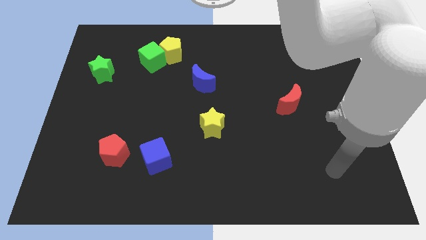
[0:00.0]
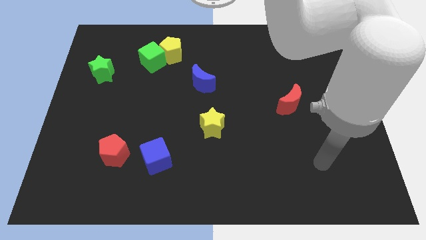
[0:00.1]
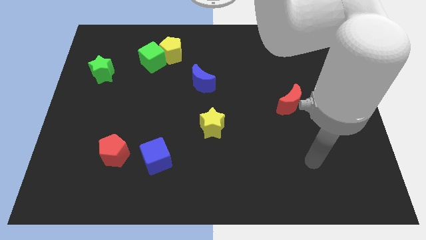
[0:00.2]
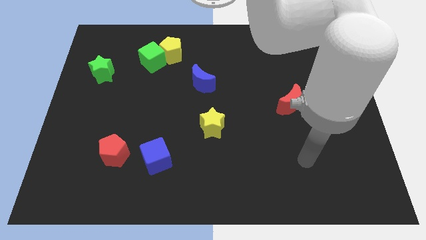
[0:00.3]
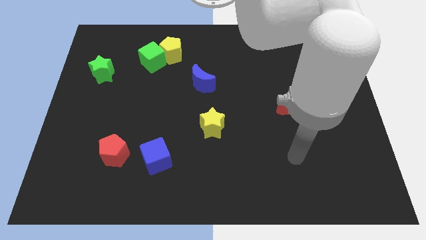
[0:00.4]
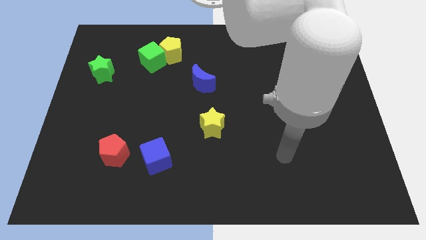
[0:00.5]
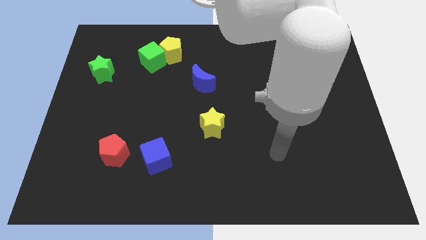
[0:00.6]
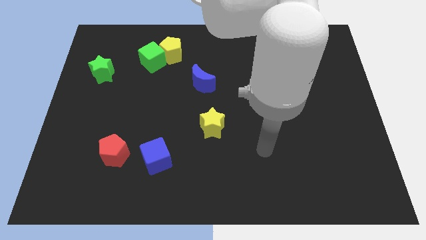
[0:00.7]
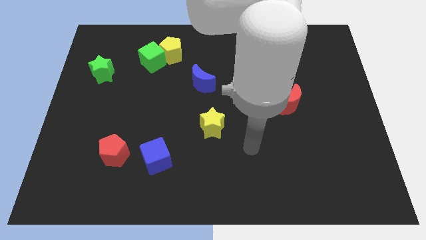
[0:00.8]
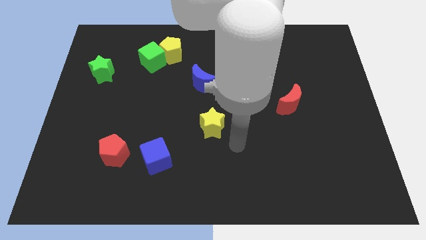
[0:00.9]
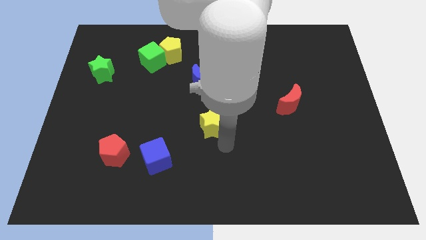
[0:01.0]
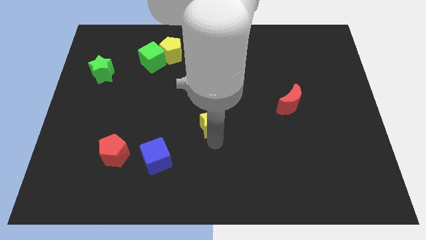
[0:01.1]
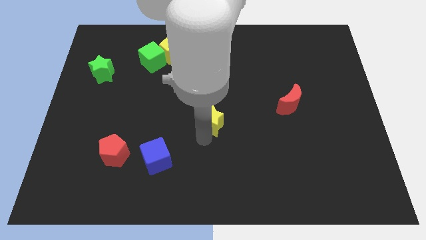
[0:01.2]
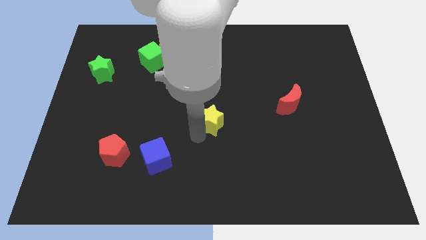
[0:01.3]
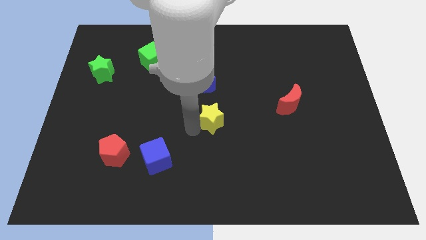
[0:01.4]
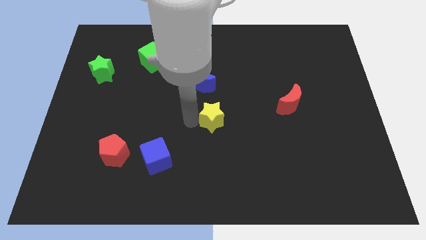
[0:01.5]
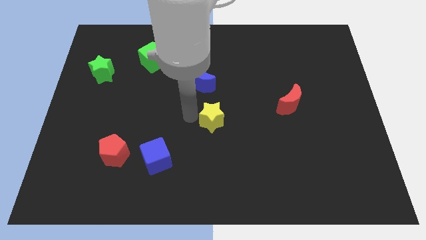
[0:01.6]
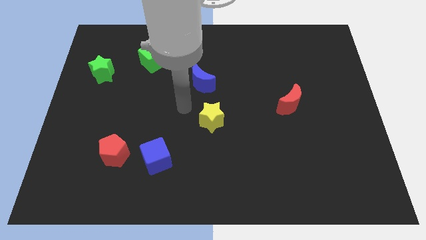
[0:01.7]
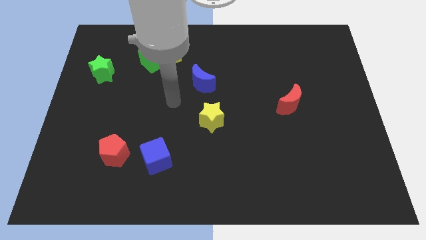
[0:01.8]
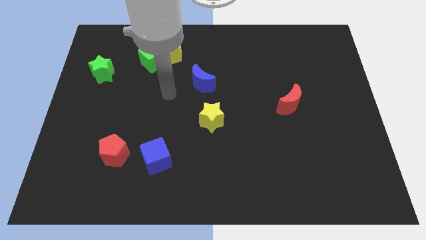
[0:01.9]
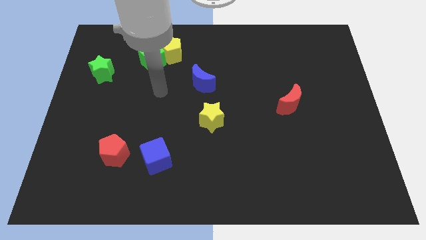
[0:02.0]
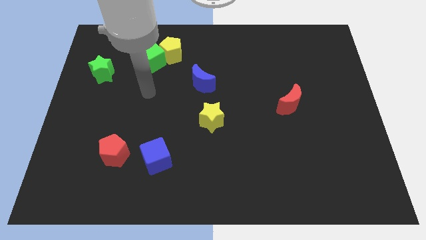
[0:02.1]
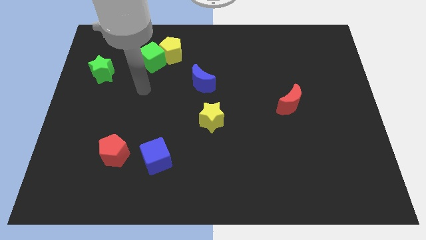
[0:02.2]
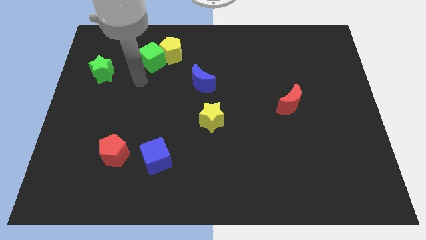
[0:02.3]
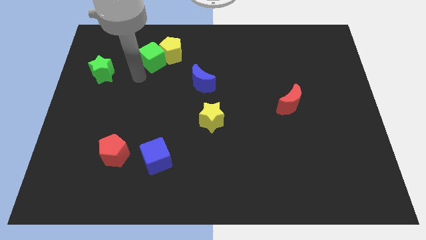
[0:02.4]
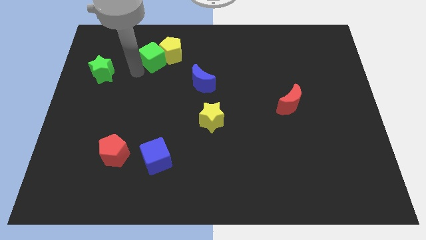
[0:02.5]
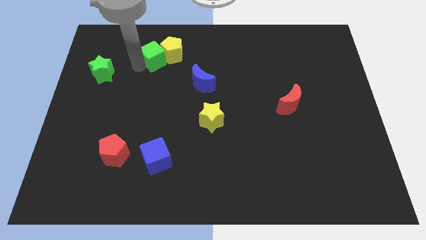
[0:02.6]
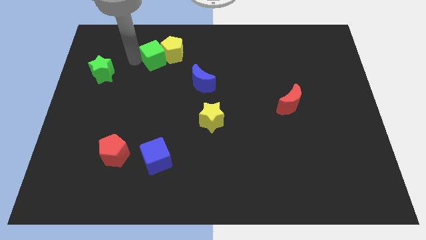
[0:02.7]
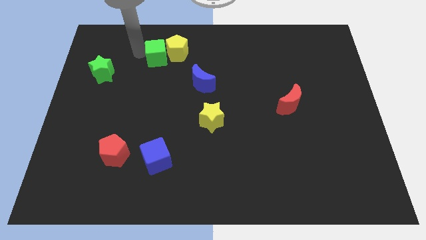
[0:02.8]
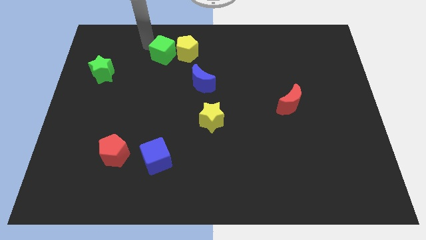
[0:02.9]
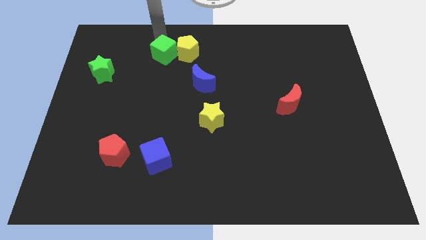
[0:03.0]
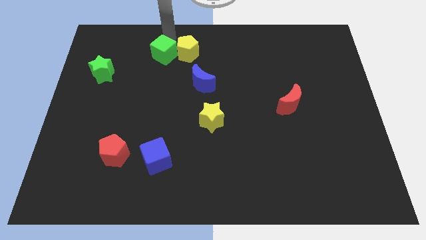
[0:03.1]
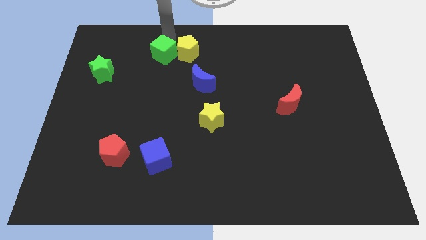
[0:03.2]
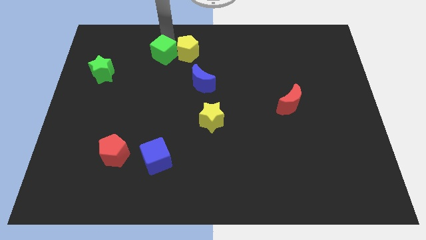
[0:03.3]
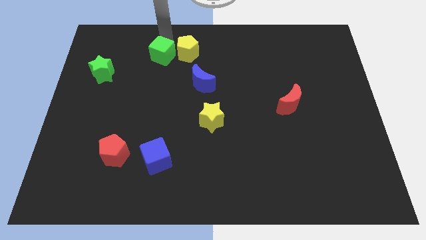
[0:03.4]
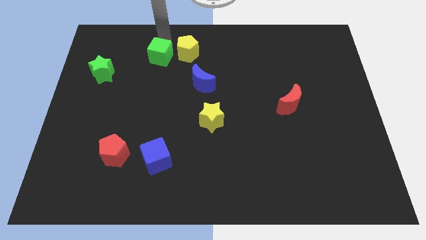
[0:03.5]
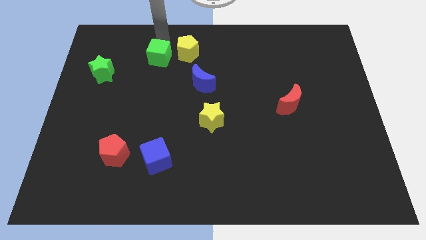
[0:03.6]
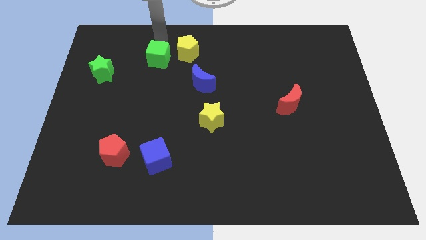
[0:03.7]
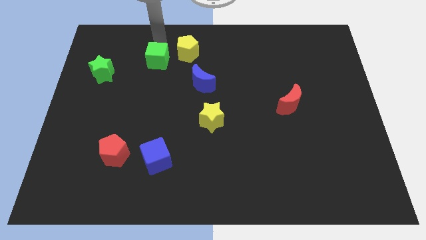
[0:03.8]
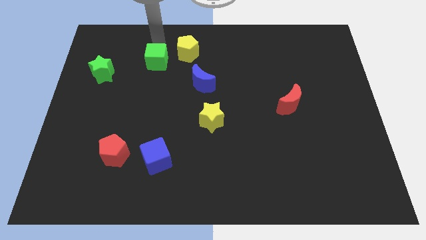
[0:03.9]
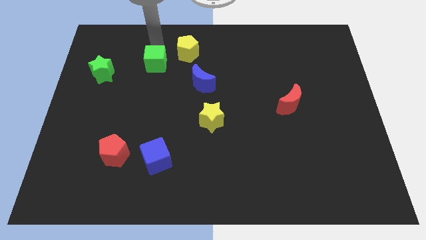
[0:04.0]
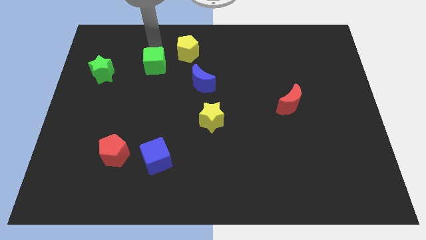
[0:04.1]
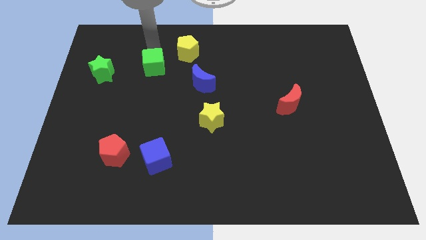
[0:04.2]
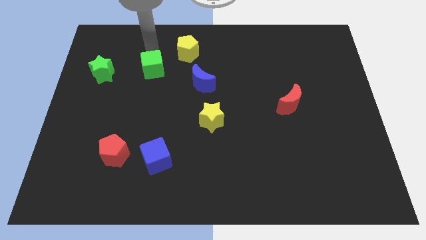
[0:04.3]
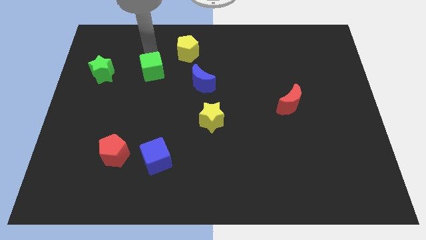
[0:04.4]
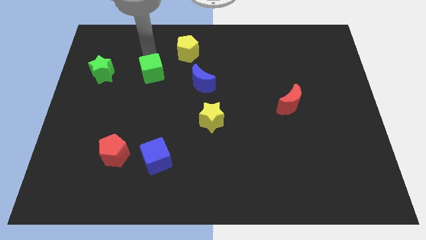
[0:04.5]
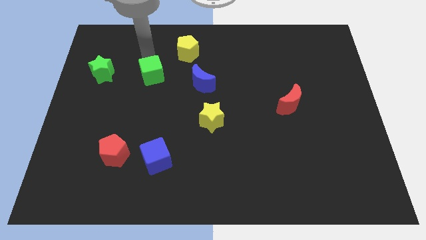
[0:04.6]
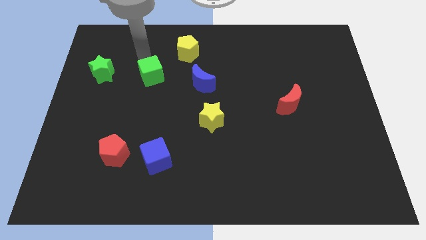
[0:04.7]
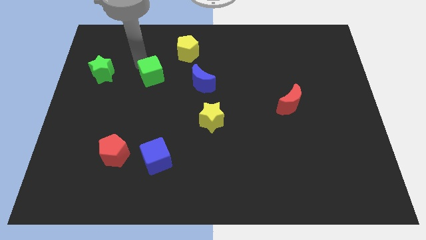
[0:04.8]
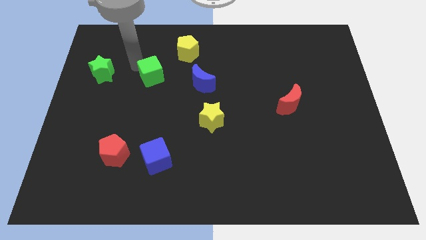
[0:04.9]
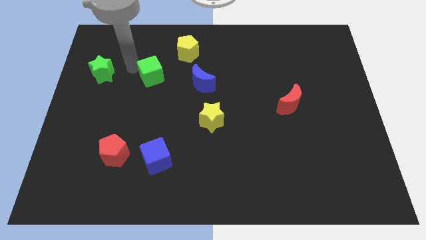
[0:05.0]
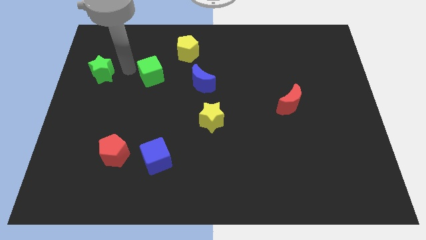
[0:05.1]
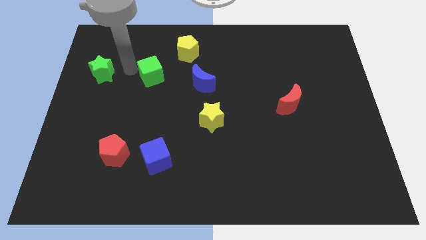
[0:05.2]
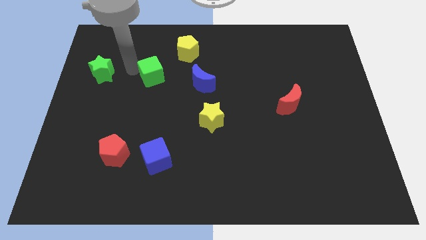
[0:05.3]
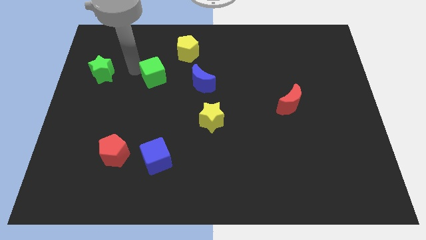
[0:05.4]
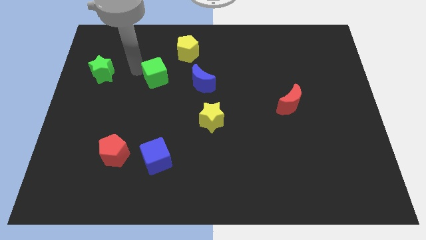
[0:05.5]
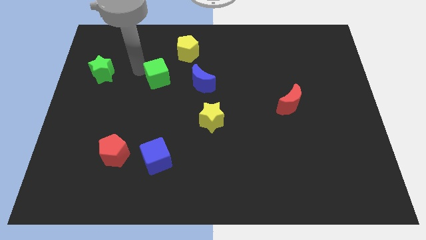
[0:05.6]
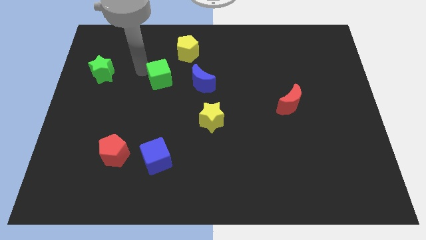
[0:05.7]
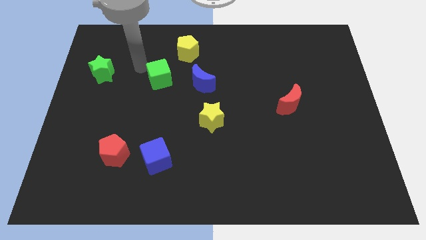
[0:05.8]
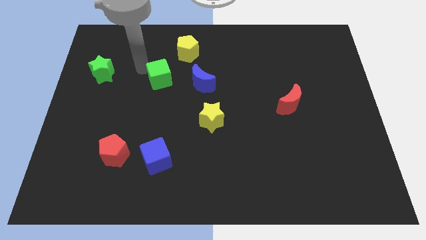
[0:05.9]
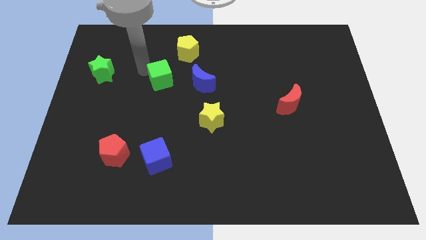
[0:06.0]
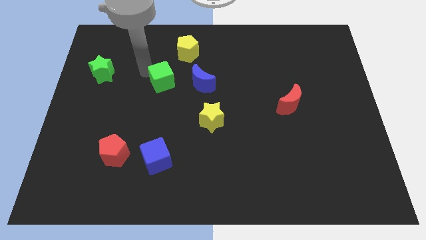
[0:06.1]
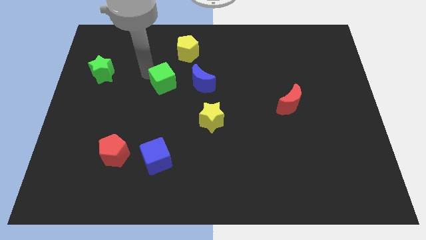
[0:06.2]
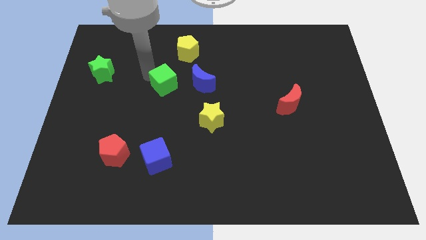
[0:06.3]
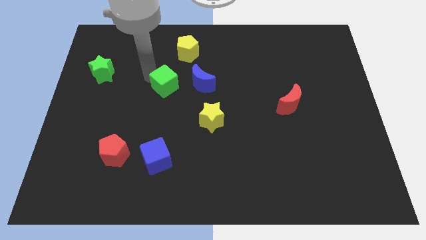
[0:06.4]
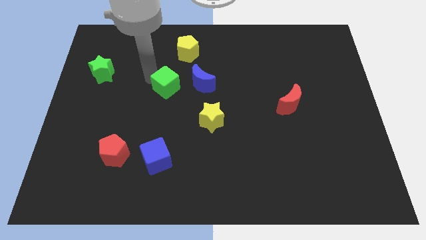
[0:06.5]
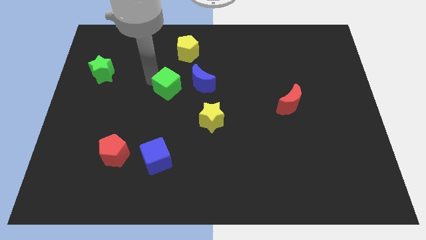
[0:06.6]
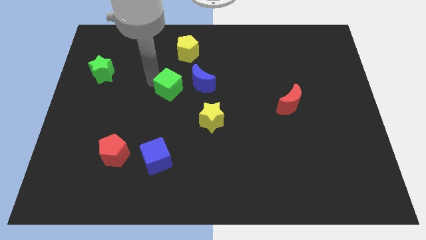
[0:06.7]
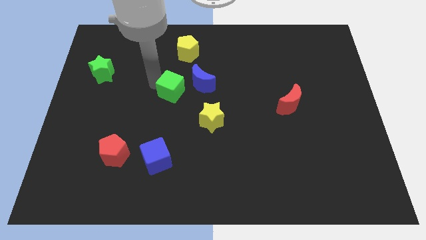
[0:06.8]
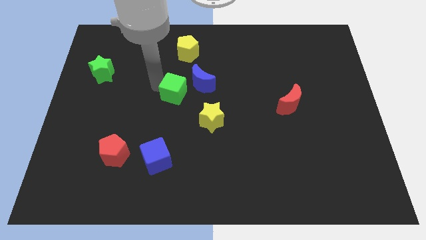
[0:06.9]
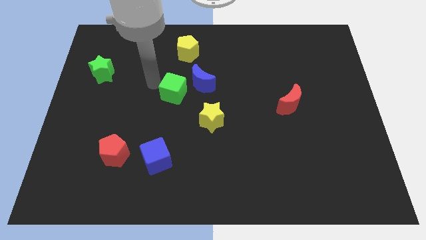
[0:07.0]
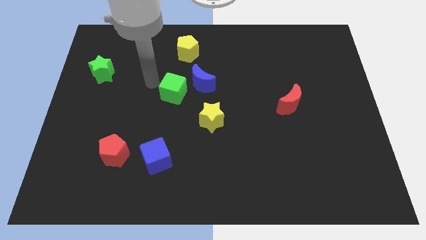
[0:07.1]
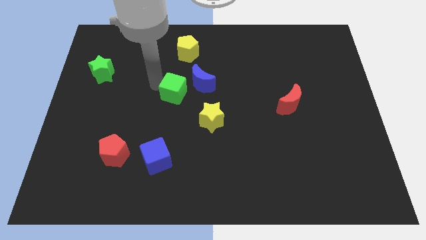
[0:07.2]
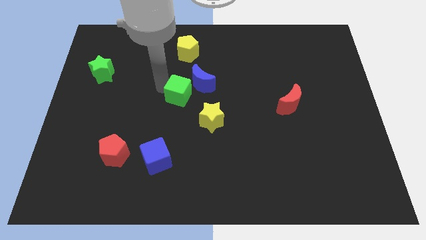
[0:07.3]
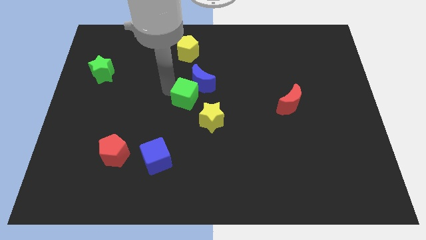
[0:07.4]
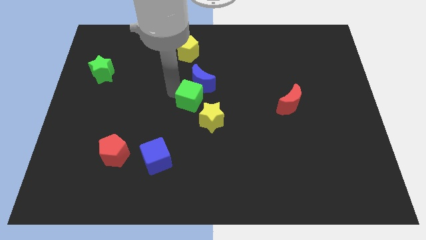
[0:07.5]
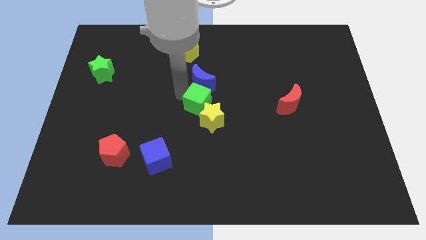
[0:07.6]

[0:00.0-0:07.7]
put the green cube next to the yellow star

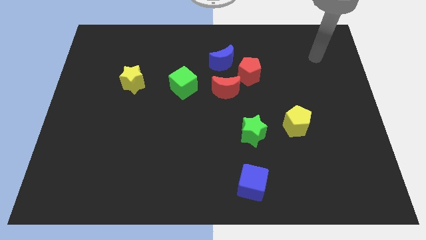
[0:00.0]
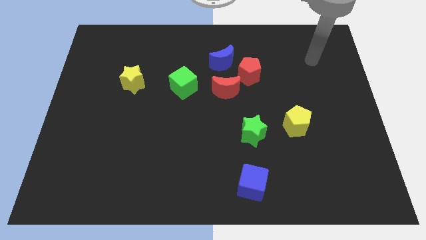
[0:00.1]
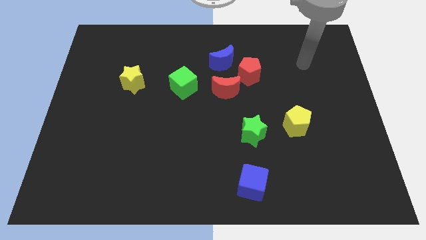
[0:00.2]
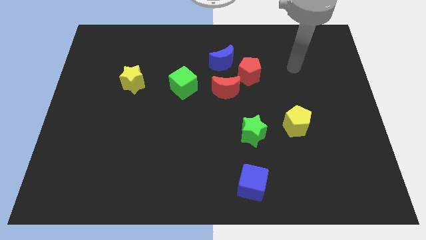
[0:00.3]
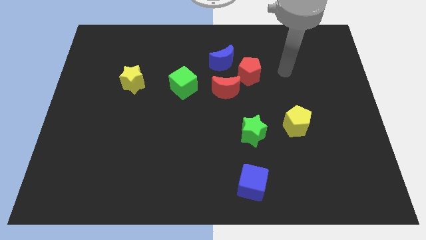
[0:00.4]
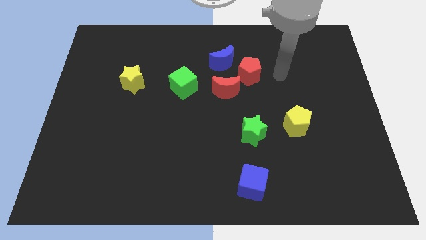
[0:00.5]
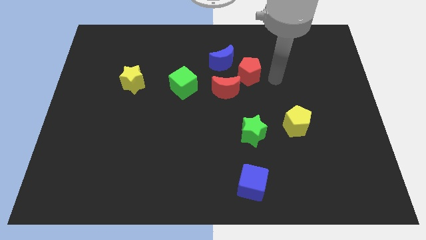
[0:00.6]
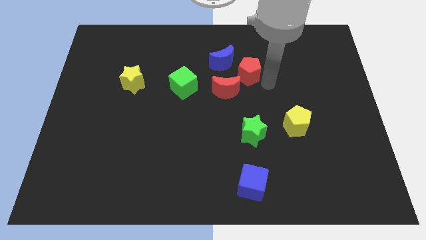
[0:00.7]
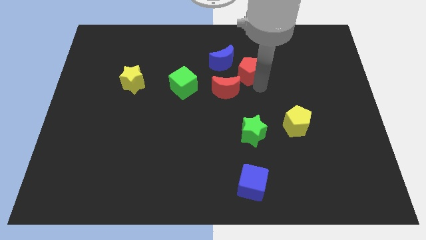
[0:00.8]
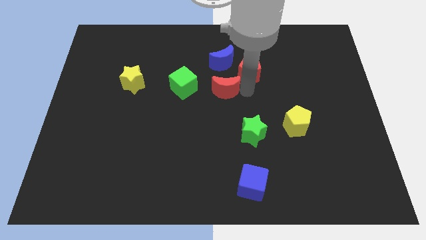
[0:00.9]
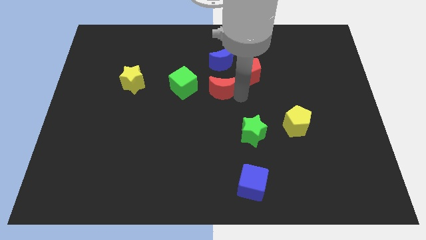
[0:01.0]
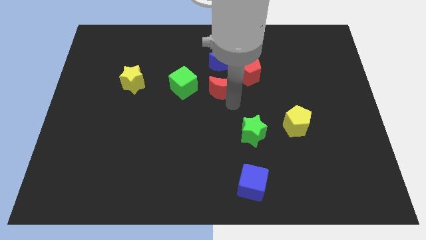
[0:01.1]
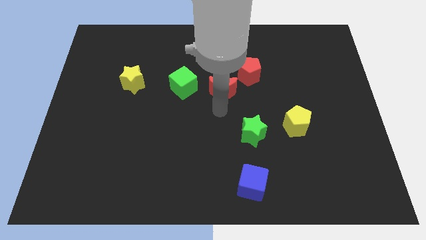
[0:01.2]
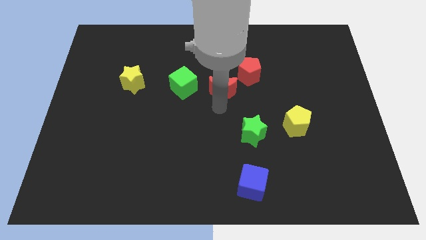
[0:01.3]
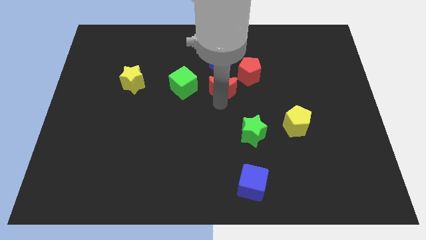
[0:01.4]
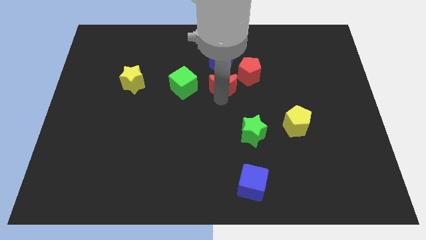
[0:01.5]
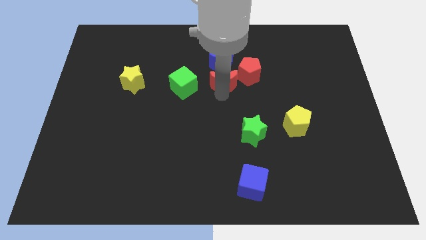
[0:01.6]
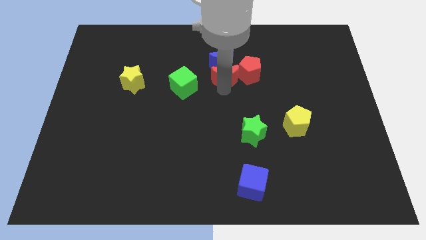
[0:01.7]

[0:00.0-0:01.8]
move the red moon towards the blue moon
